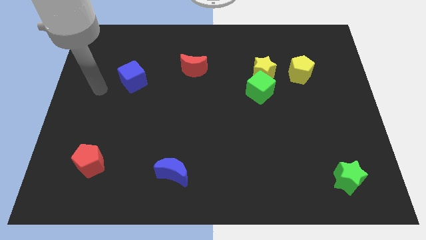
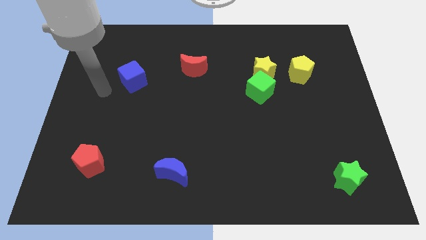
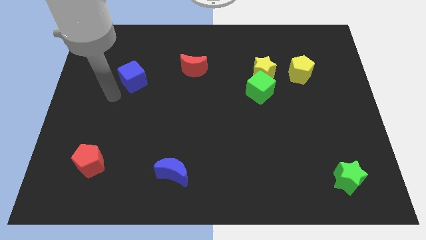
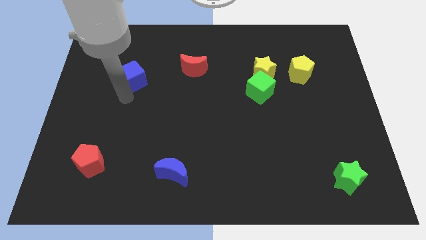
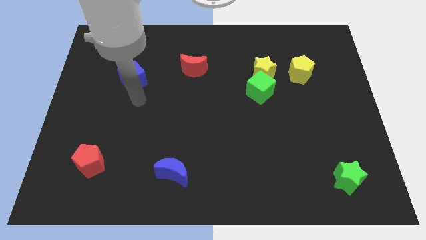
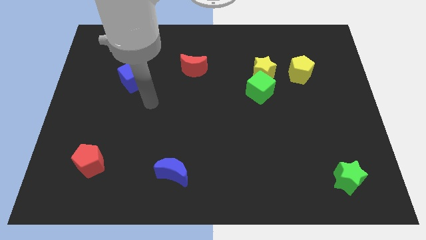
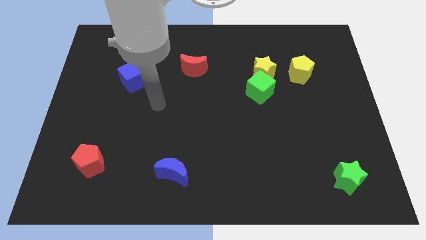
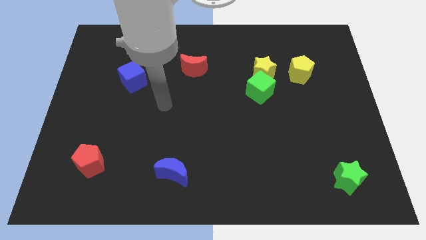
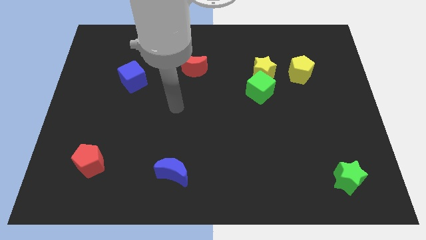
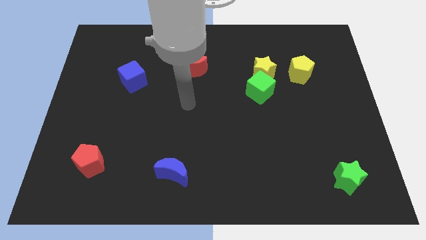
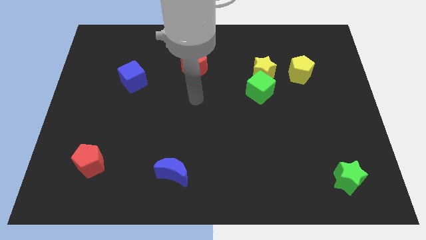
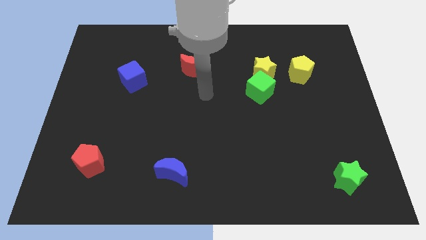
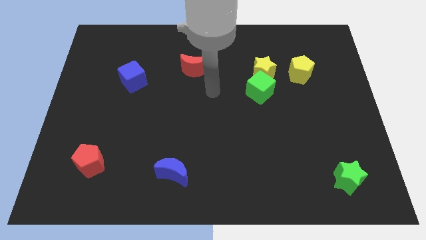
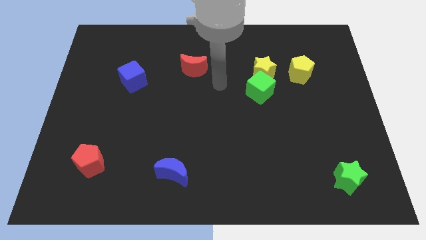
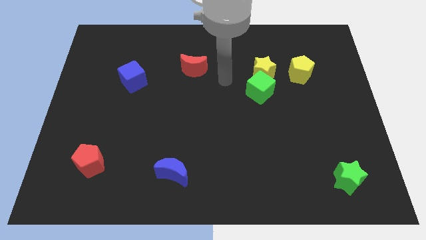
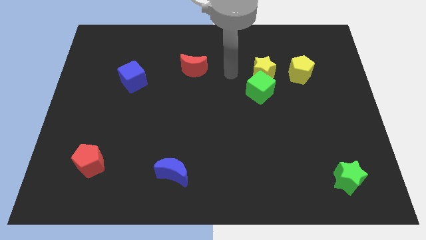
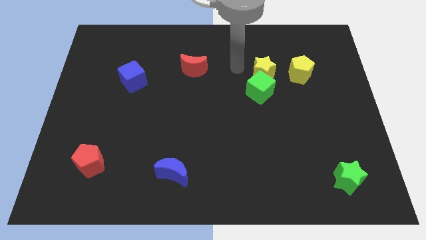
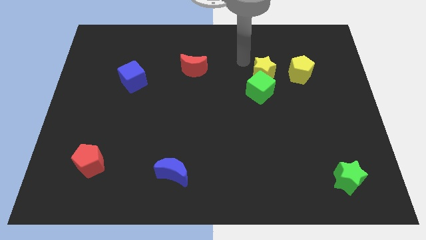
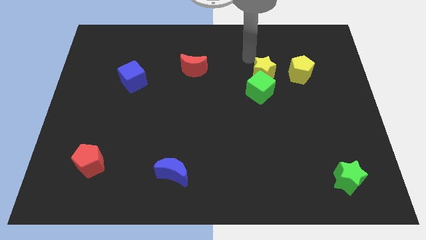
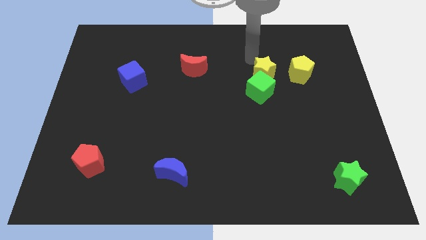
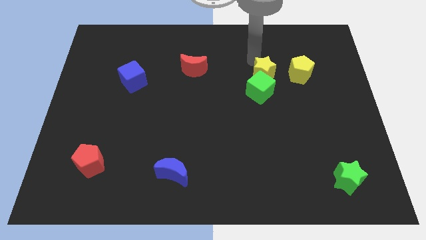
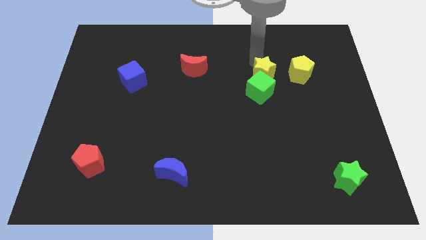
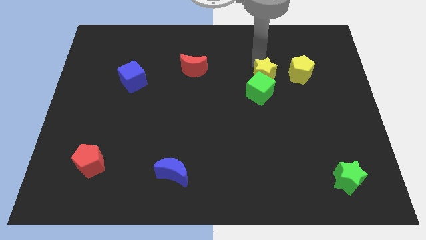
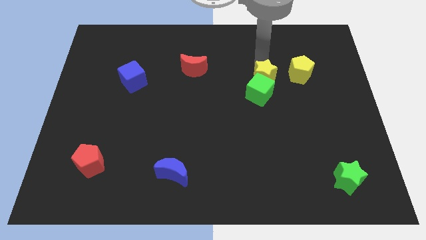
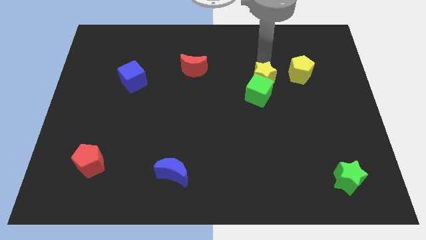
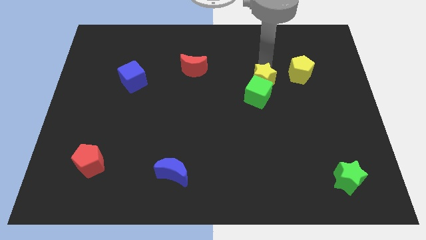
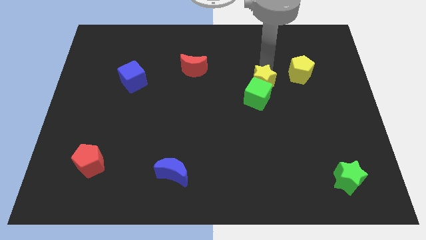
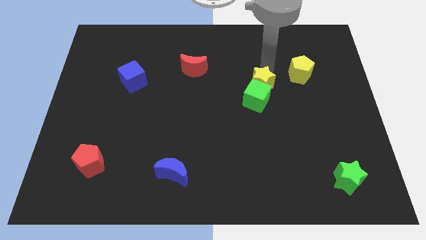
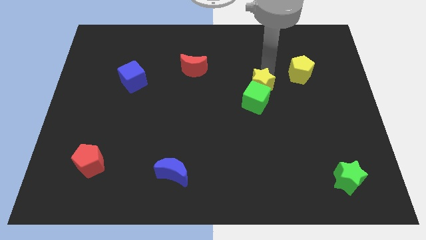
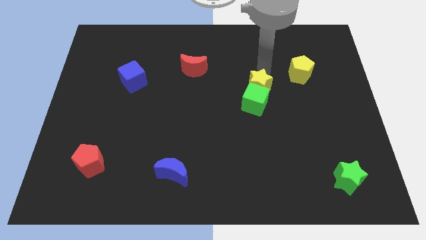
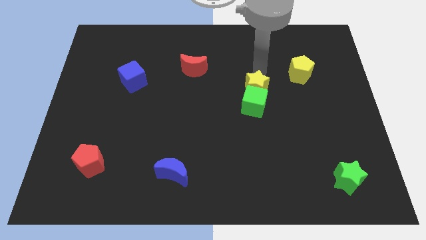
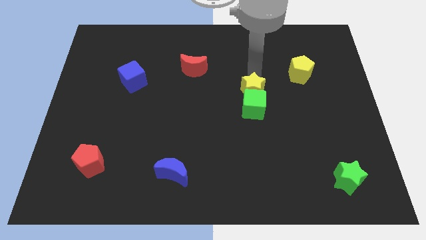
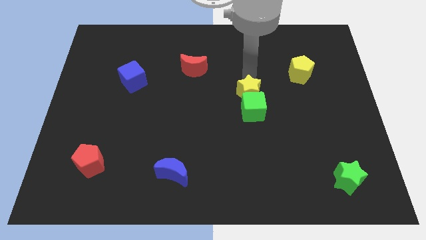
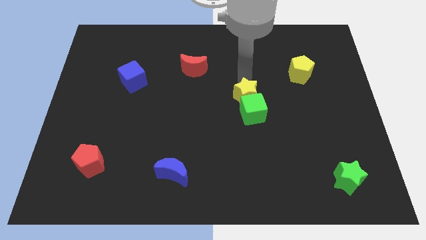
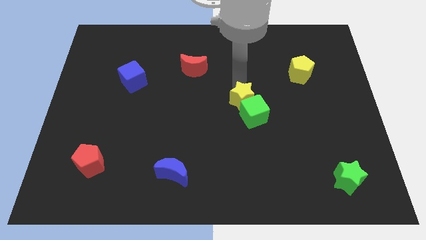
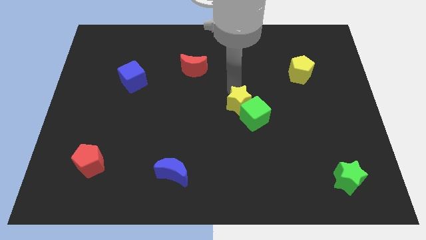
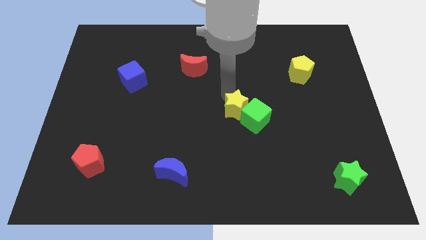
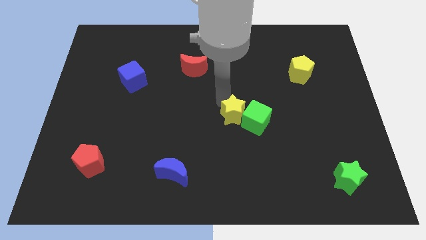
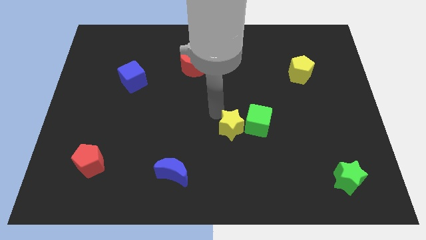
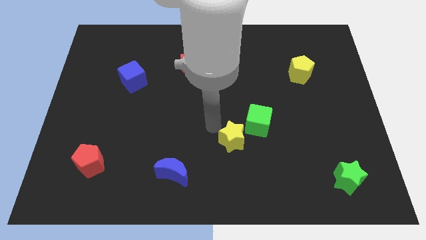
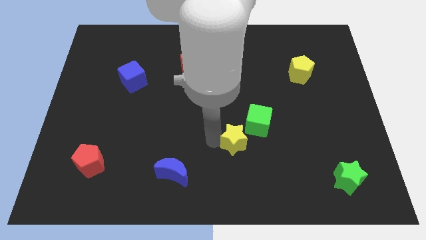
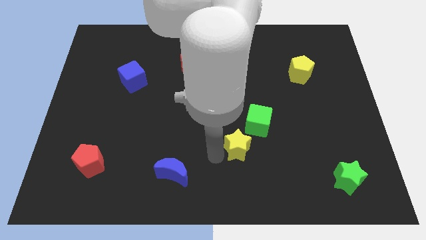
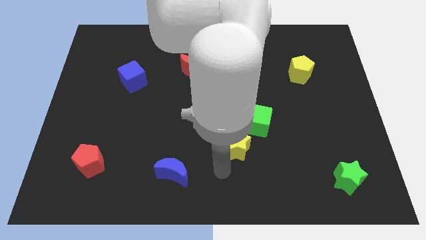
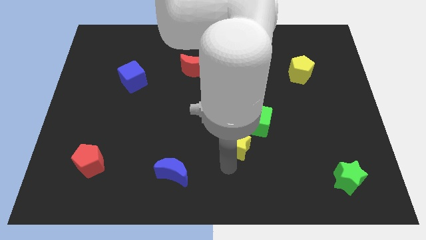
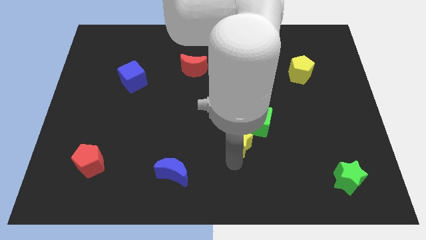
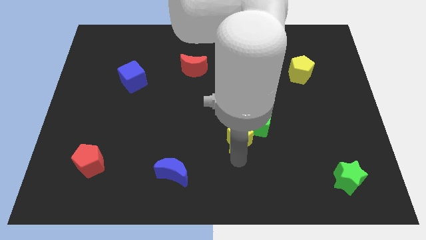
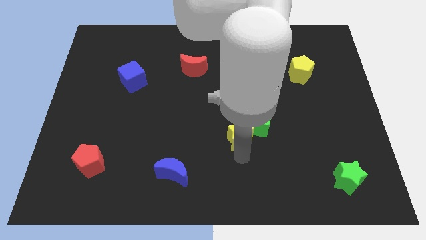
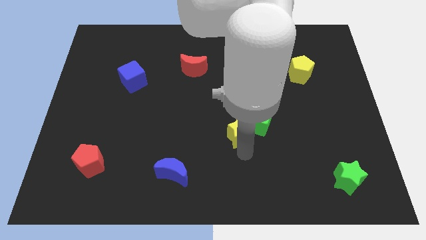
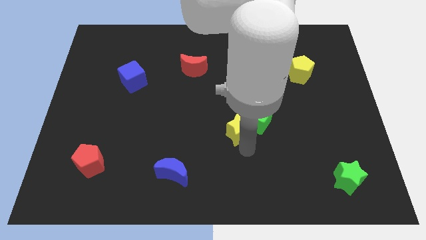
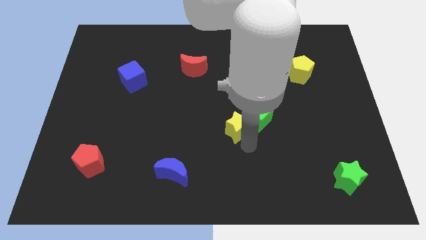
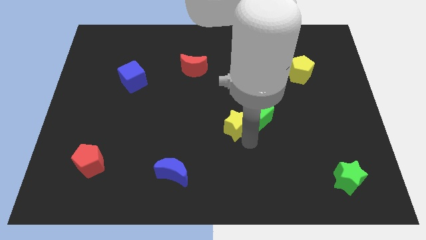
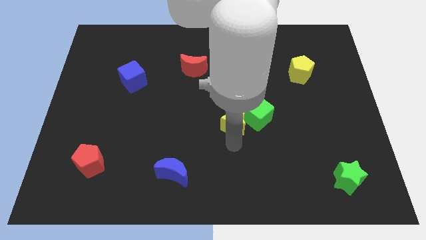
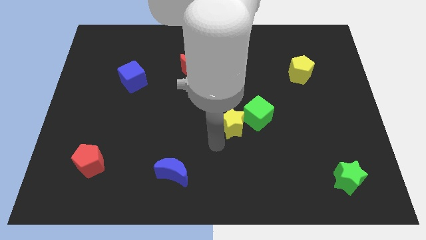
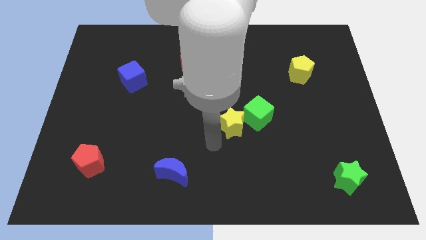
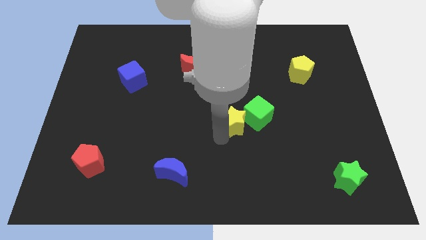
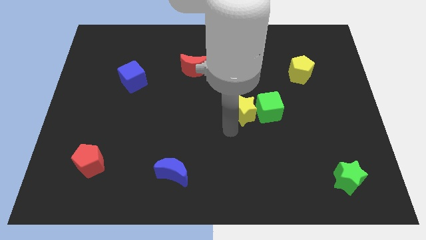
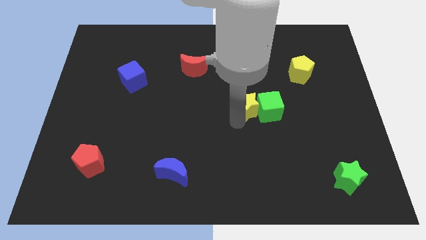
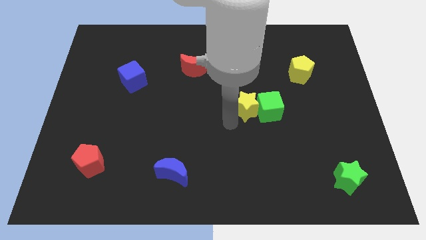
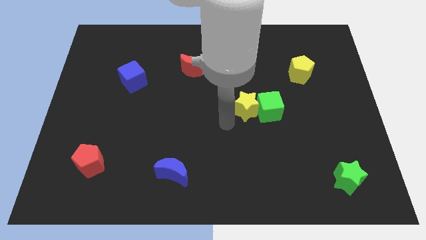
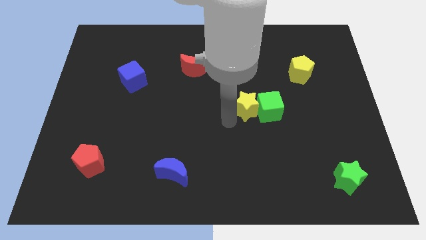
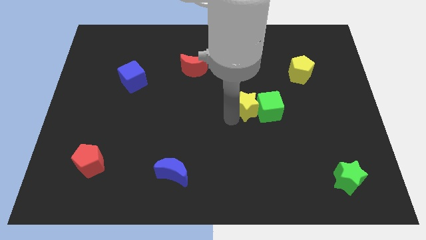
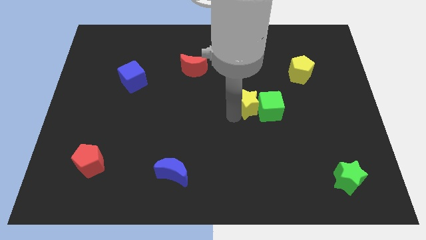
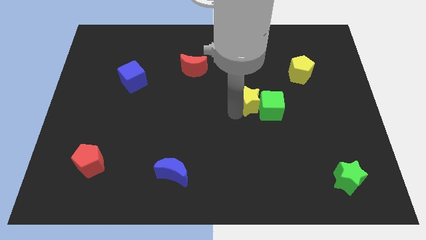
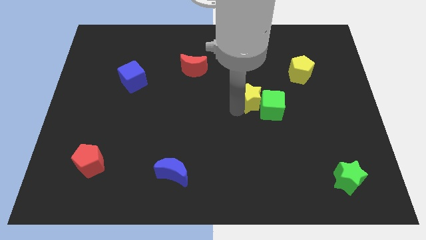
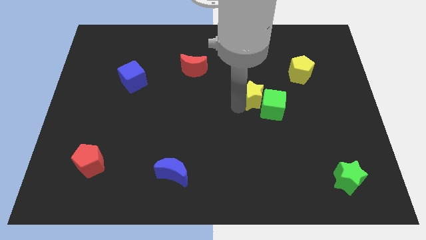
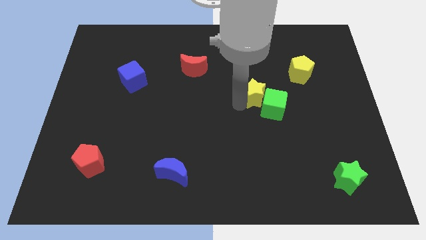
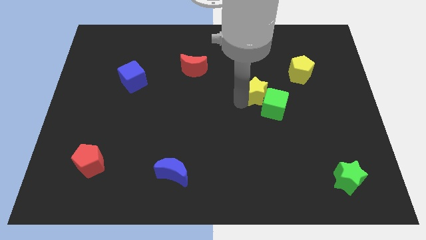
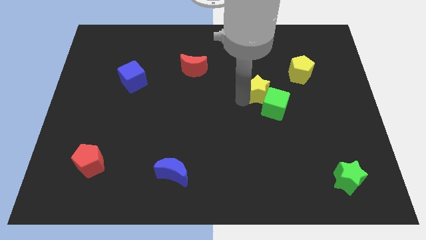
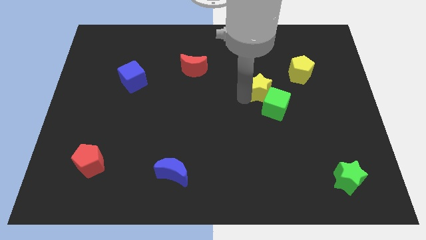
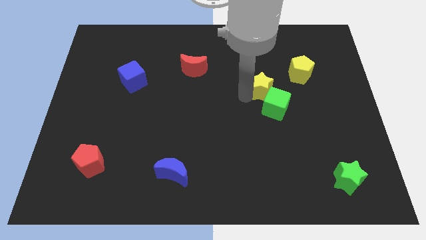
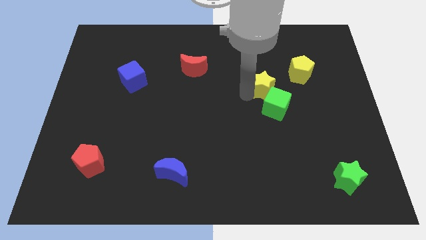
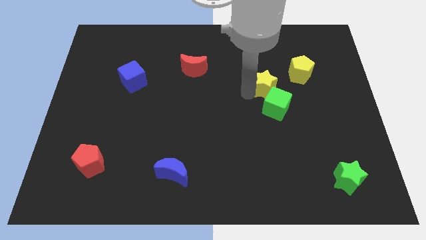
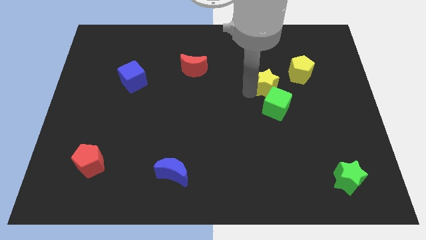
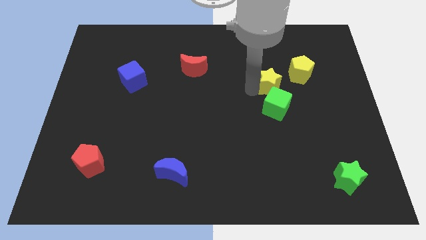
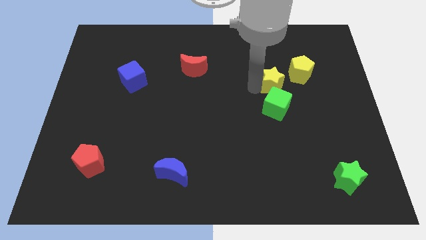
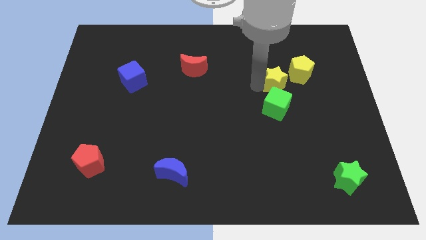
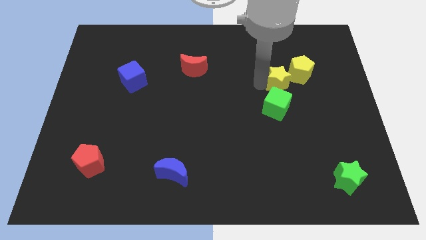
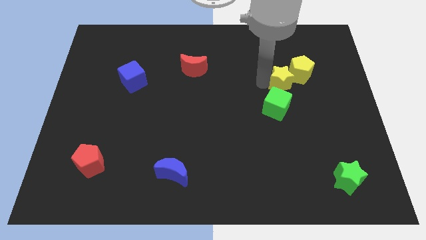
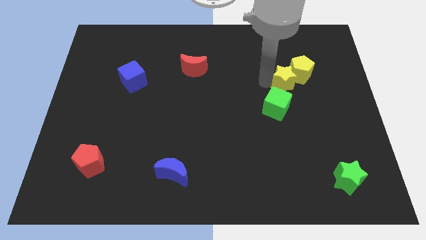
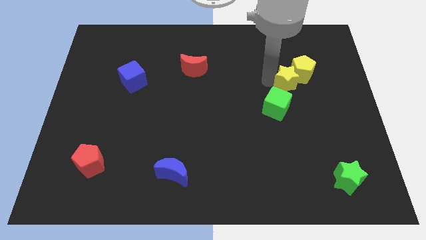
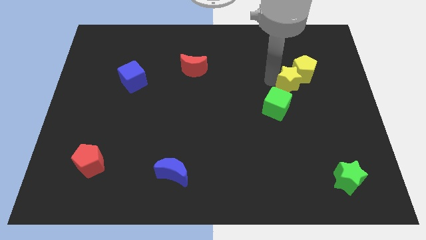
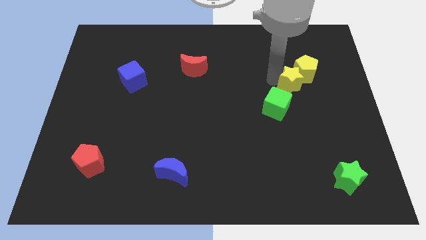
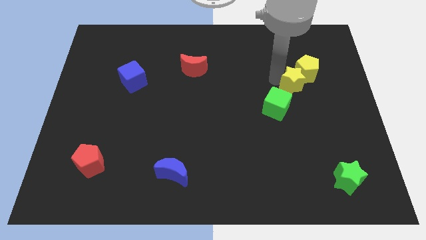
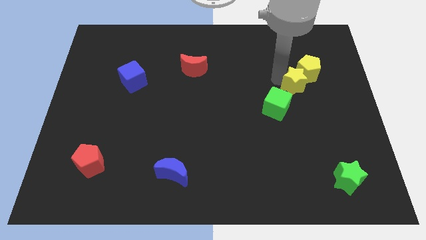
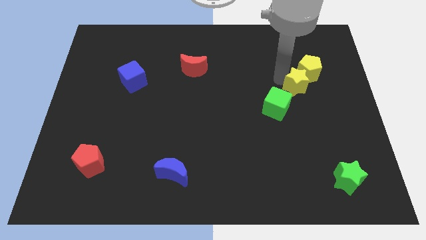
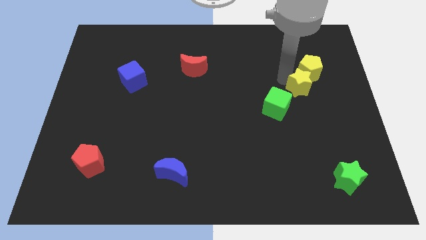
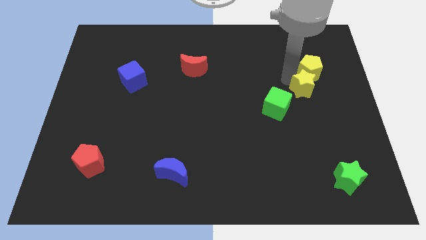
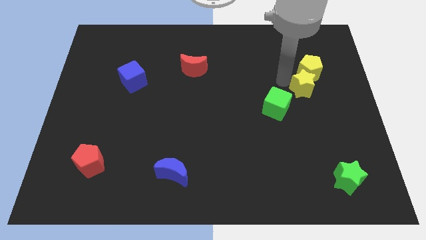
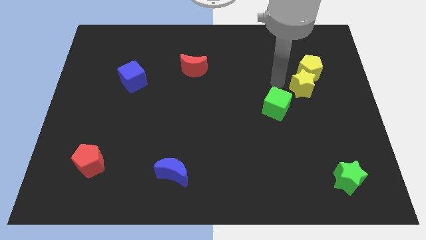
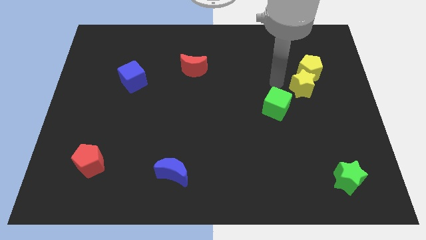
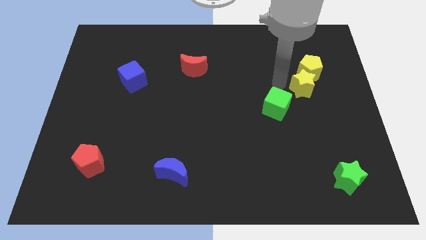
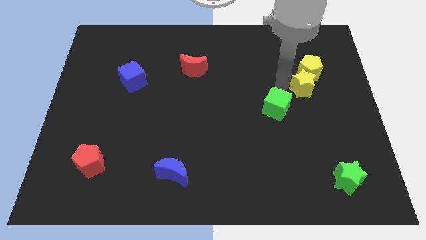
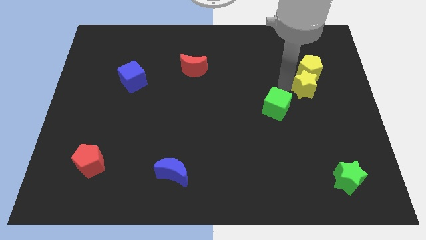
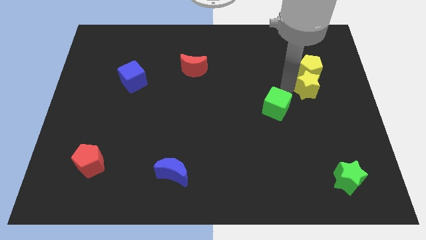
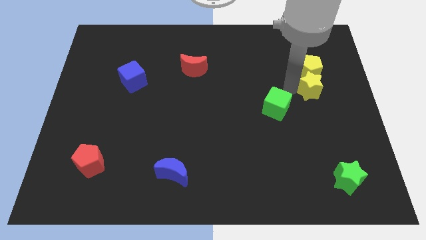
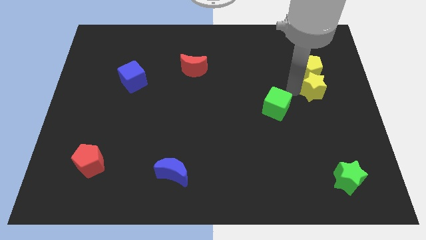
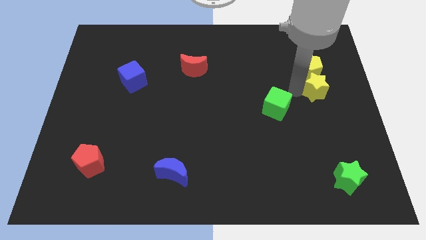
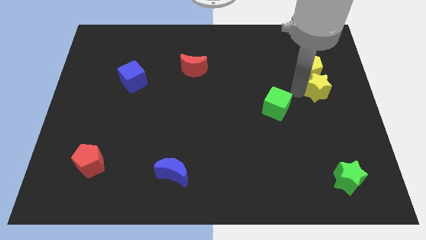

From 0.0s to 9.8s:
push the yellow star to the right side
